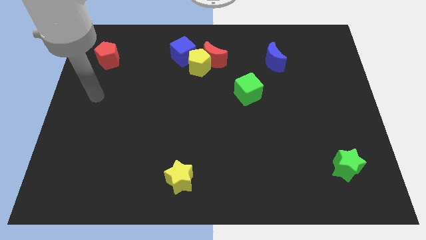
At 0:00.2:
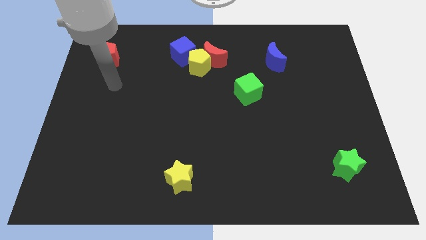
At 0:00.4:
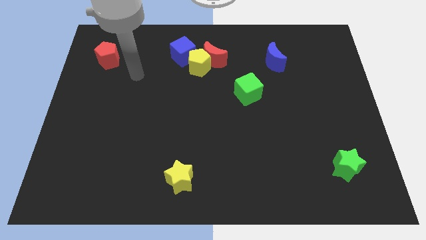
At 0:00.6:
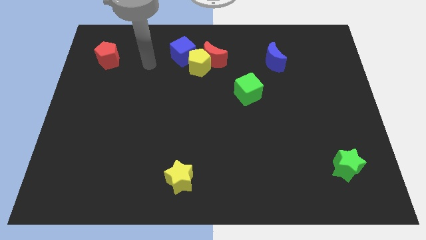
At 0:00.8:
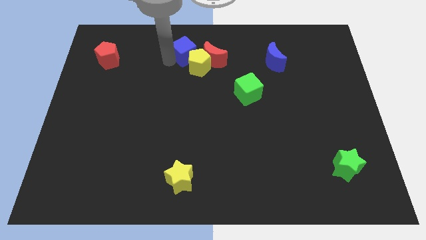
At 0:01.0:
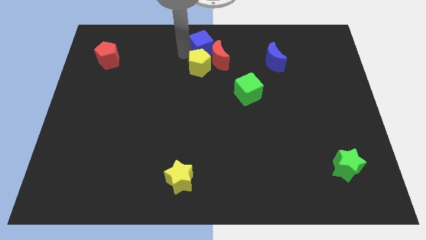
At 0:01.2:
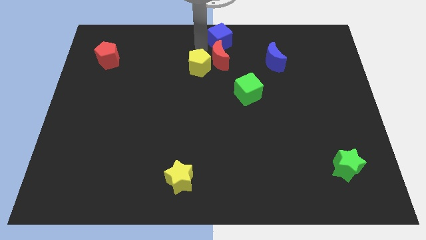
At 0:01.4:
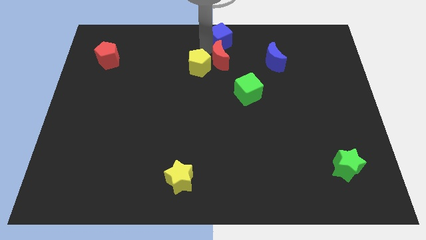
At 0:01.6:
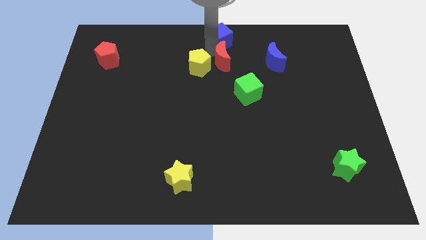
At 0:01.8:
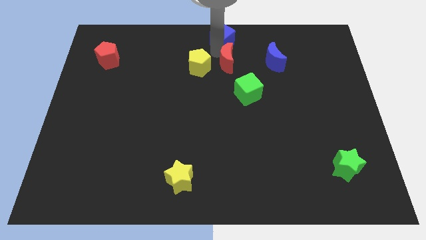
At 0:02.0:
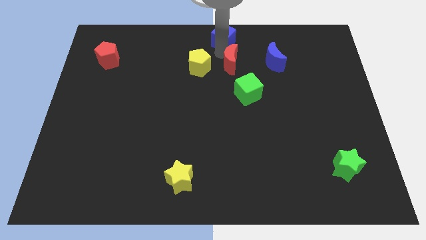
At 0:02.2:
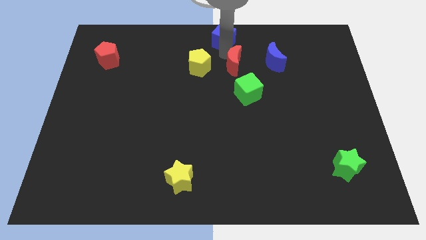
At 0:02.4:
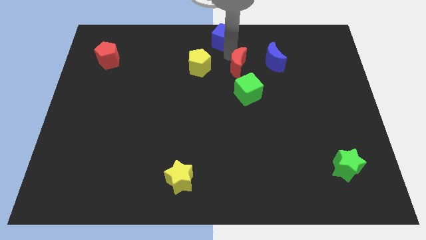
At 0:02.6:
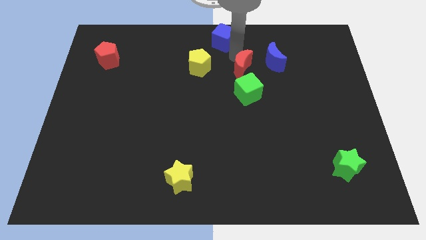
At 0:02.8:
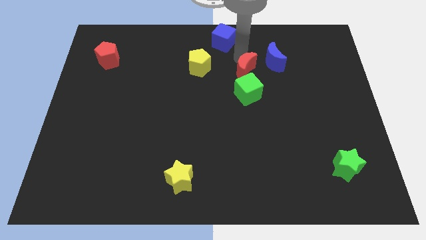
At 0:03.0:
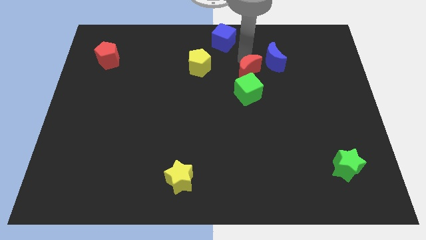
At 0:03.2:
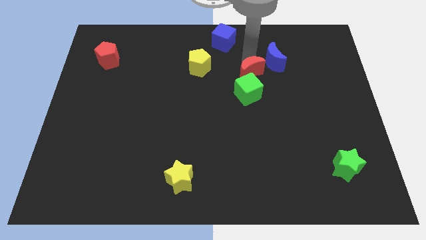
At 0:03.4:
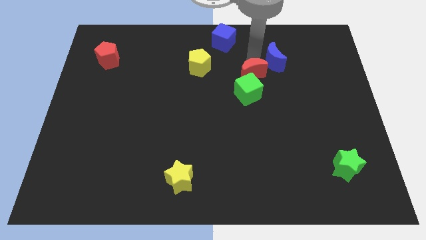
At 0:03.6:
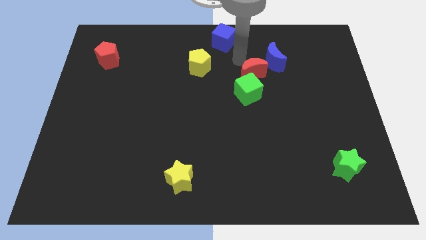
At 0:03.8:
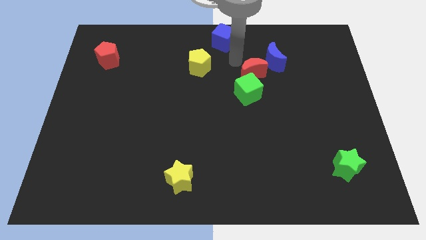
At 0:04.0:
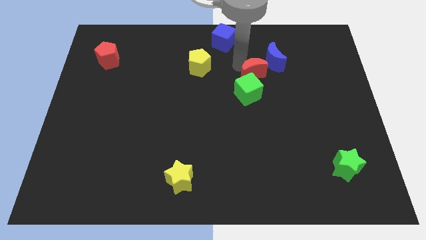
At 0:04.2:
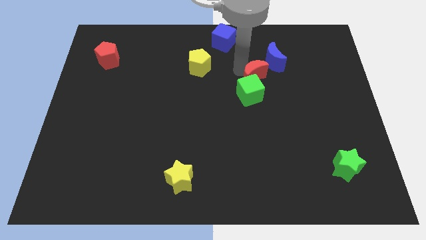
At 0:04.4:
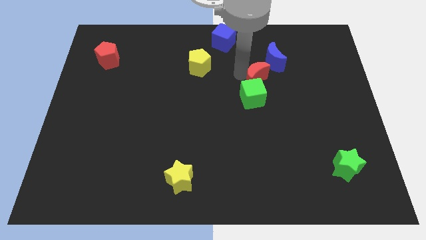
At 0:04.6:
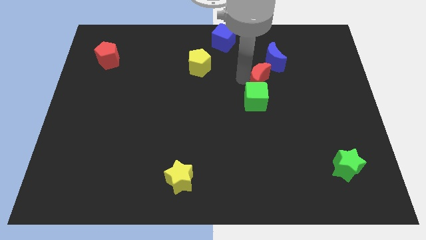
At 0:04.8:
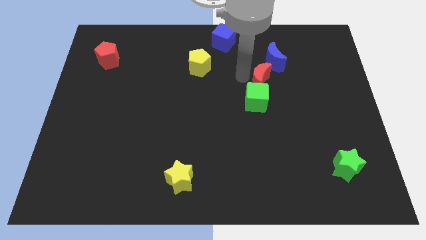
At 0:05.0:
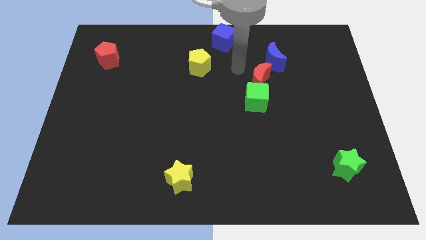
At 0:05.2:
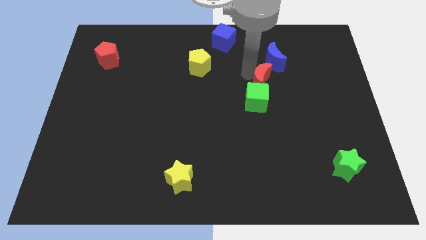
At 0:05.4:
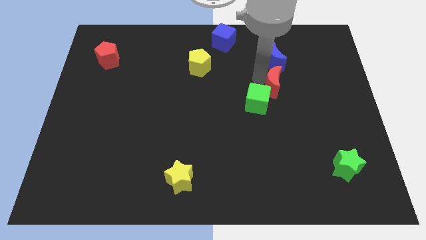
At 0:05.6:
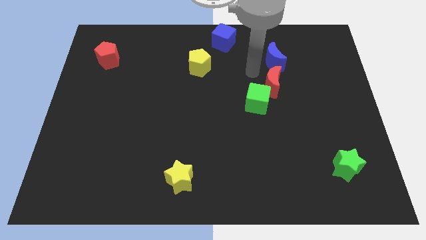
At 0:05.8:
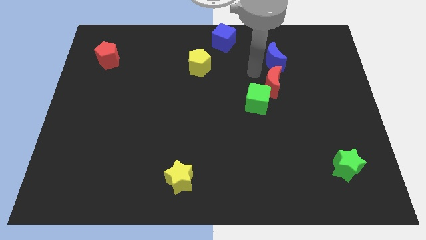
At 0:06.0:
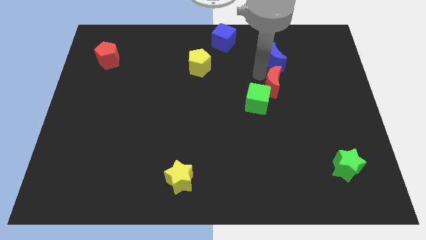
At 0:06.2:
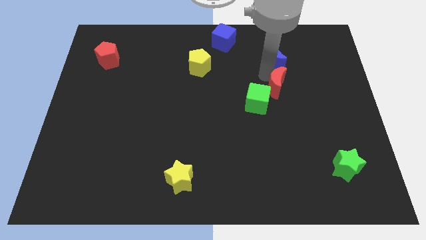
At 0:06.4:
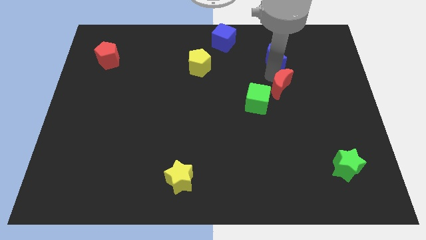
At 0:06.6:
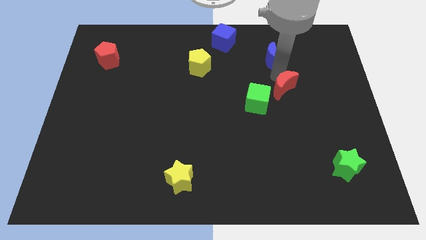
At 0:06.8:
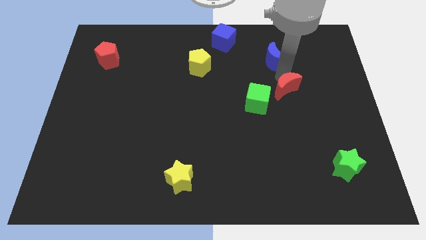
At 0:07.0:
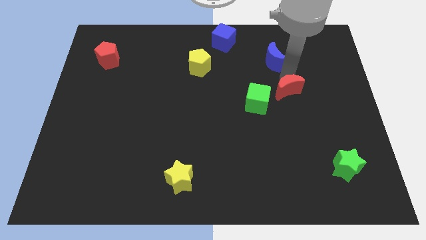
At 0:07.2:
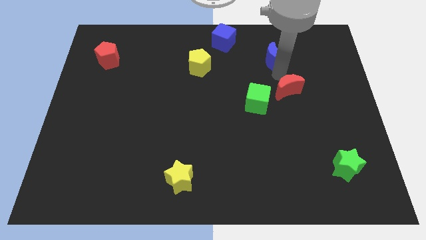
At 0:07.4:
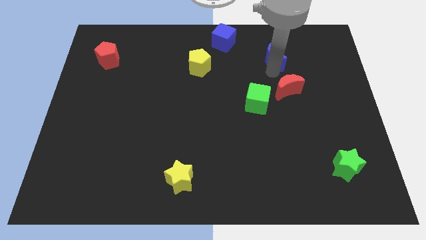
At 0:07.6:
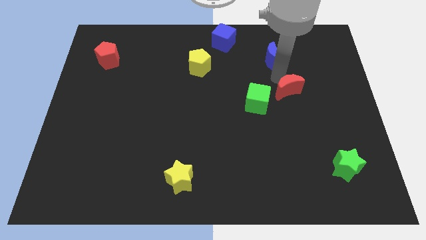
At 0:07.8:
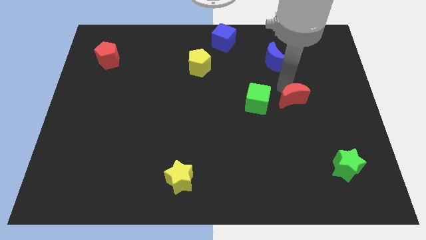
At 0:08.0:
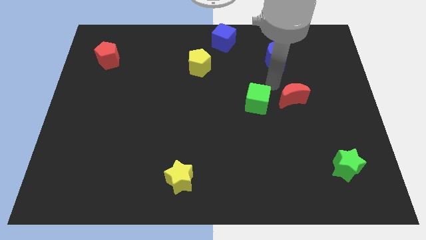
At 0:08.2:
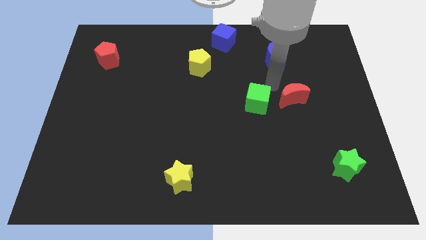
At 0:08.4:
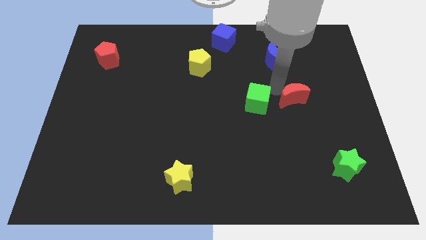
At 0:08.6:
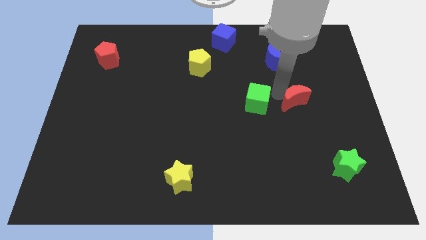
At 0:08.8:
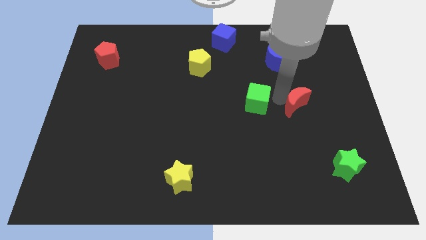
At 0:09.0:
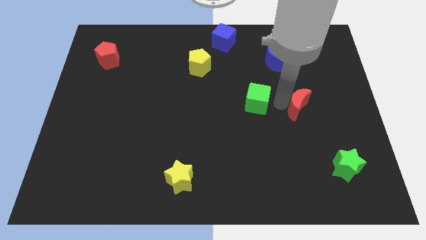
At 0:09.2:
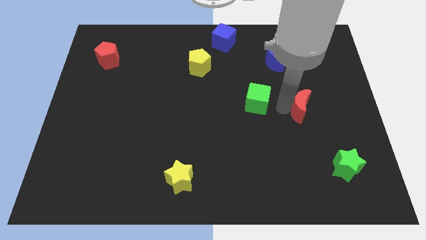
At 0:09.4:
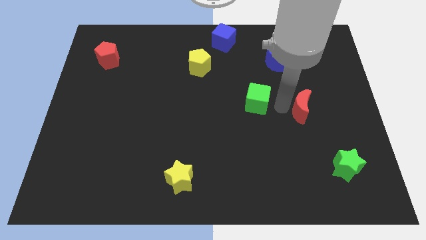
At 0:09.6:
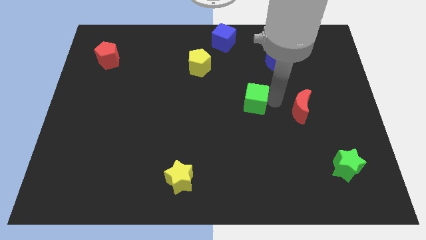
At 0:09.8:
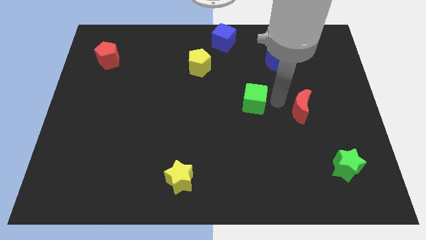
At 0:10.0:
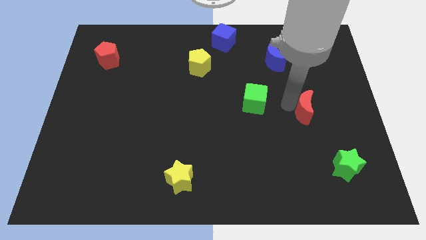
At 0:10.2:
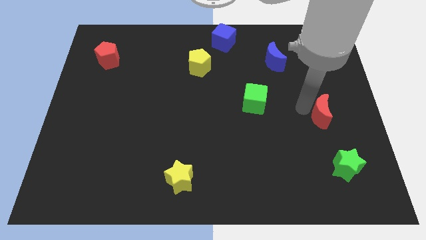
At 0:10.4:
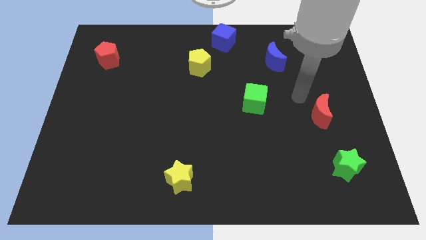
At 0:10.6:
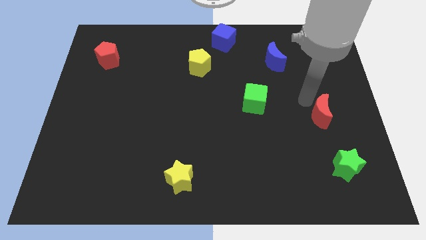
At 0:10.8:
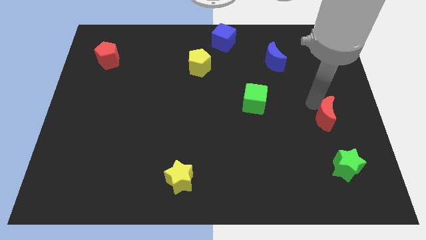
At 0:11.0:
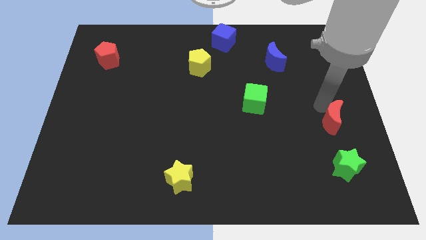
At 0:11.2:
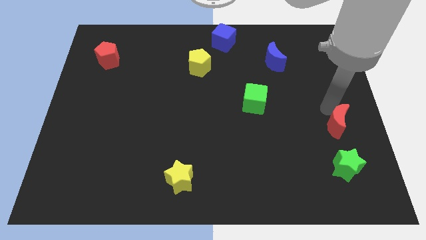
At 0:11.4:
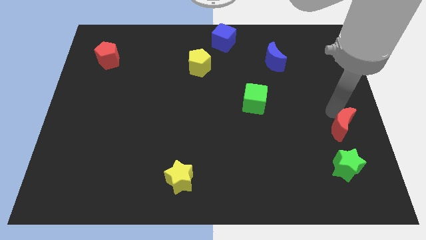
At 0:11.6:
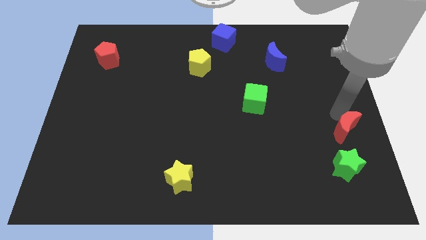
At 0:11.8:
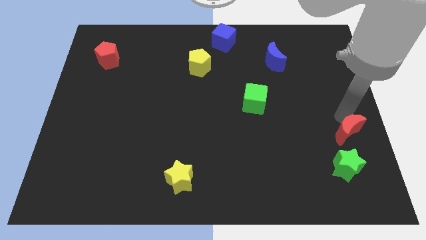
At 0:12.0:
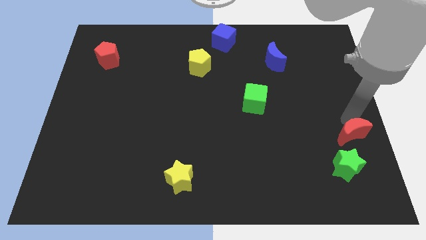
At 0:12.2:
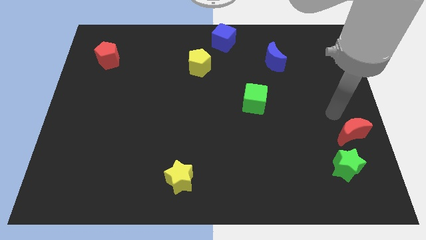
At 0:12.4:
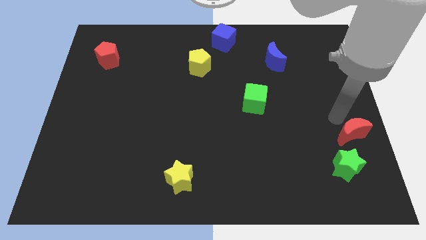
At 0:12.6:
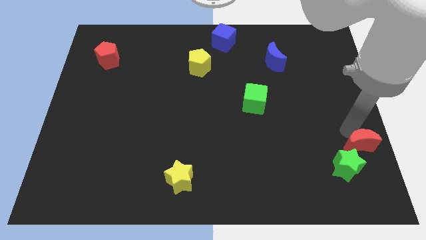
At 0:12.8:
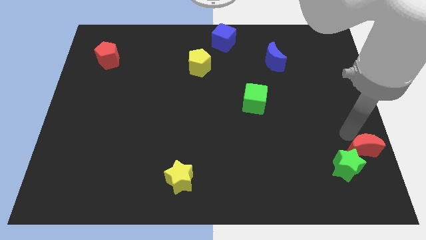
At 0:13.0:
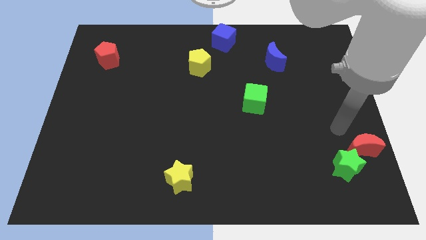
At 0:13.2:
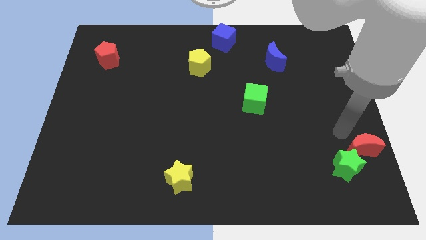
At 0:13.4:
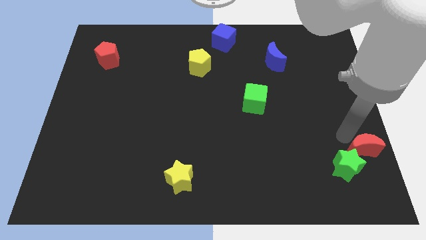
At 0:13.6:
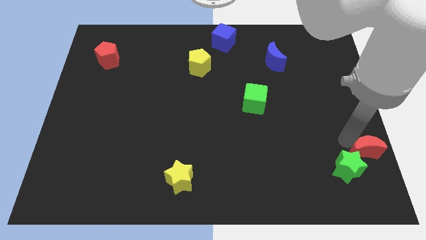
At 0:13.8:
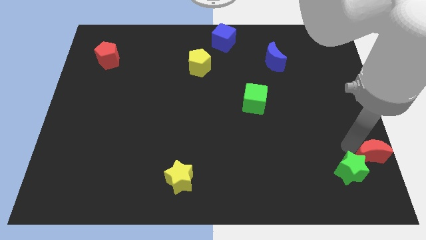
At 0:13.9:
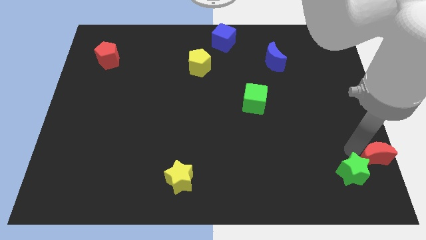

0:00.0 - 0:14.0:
slide the red moon to the bottom right corner
